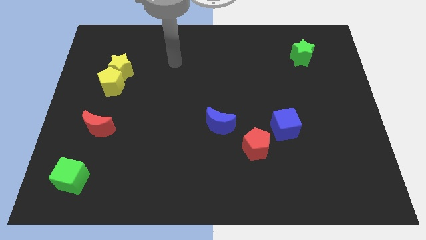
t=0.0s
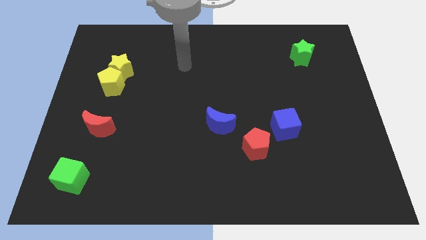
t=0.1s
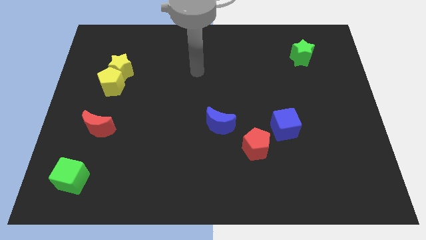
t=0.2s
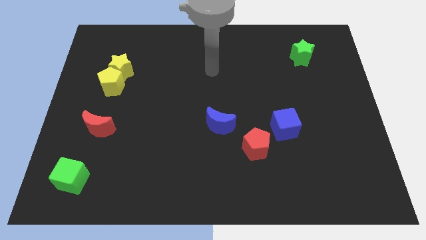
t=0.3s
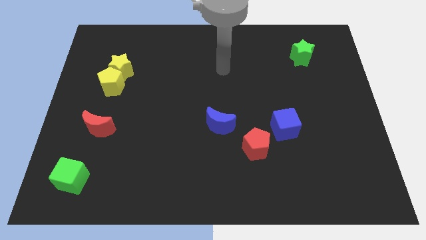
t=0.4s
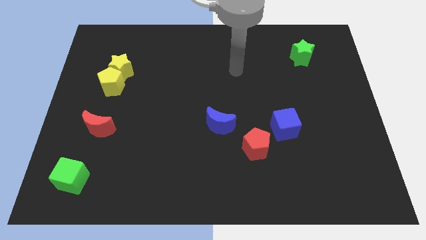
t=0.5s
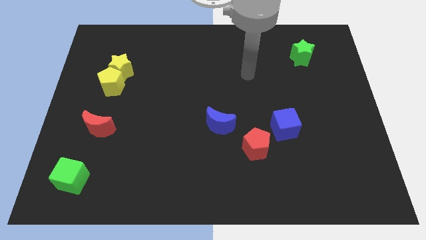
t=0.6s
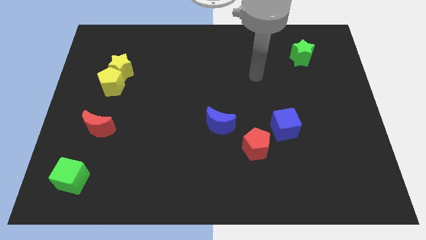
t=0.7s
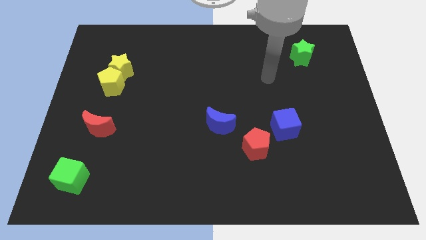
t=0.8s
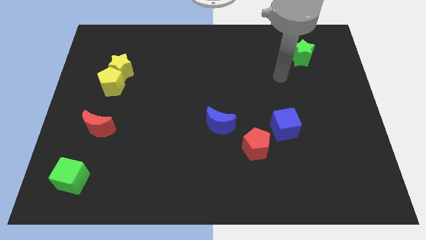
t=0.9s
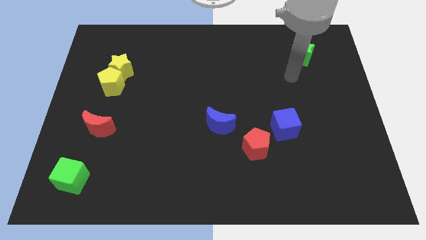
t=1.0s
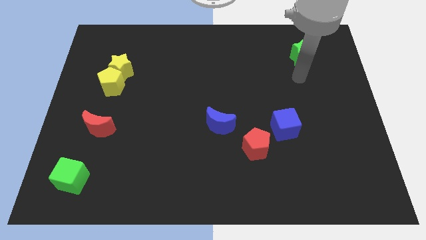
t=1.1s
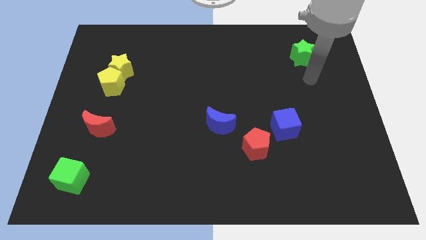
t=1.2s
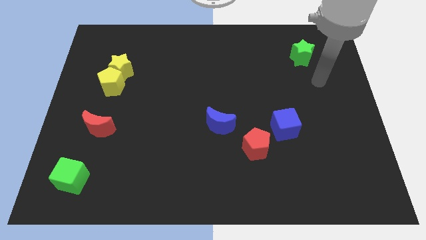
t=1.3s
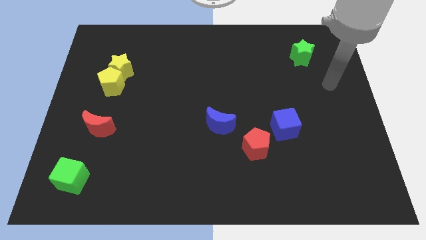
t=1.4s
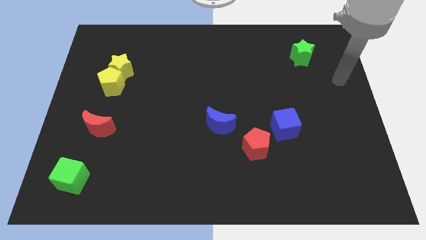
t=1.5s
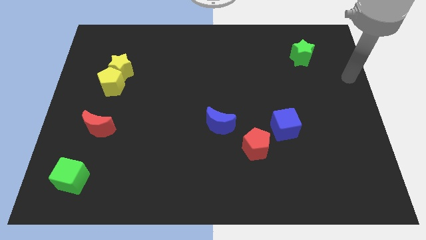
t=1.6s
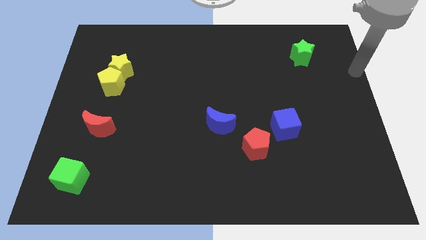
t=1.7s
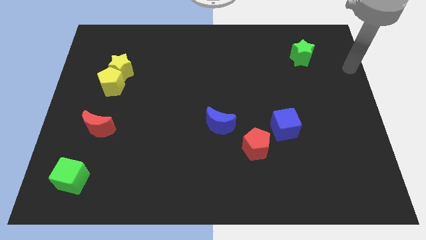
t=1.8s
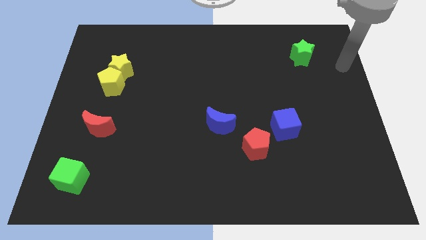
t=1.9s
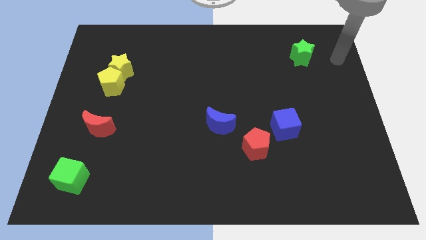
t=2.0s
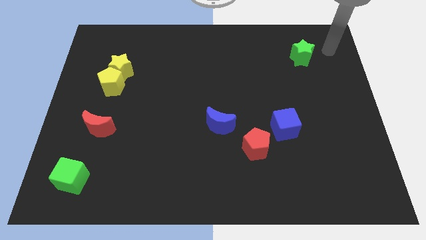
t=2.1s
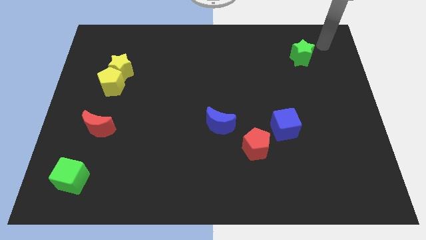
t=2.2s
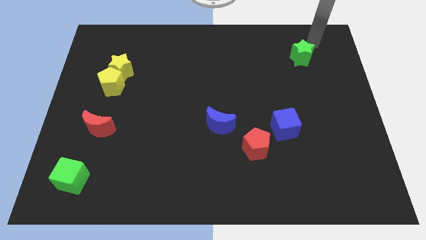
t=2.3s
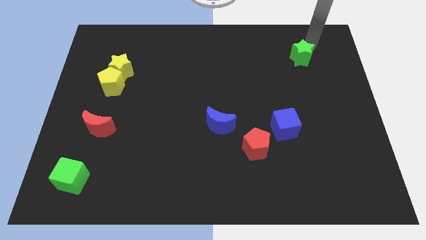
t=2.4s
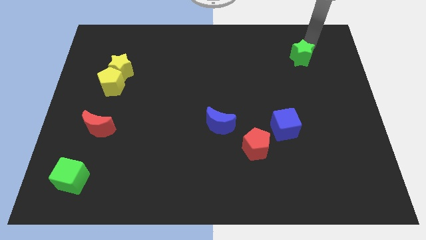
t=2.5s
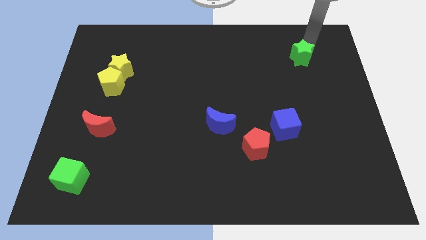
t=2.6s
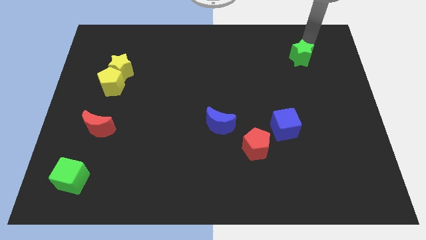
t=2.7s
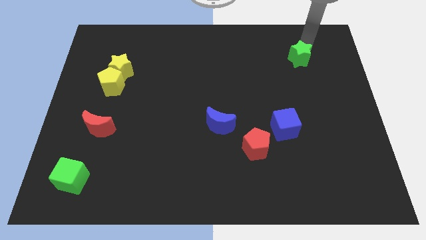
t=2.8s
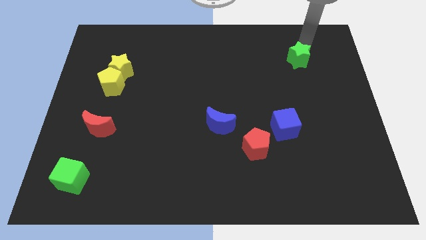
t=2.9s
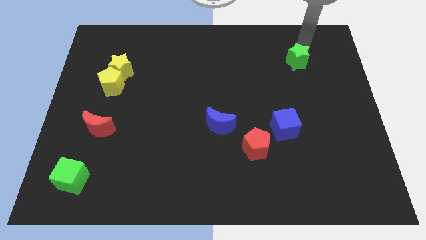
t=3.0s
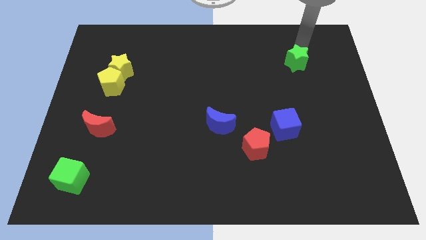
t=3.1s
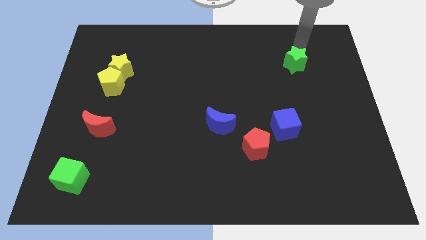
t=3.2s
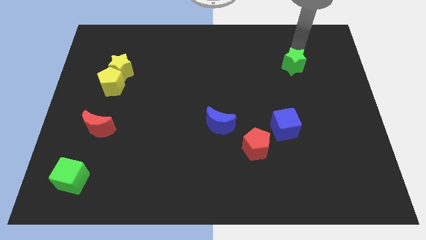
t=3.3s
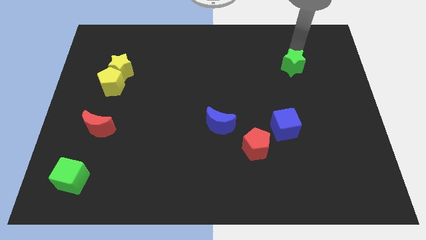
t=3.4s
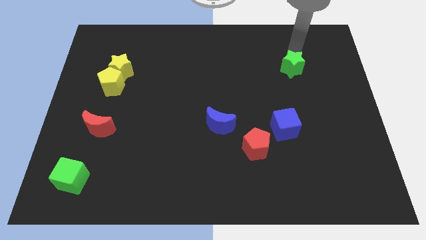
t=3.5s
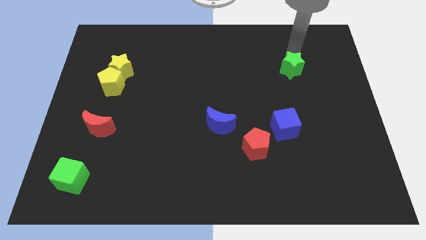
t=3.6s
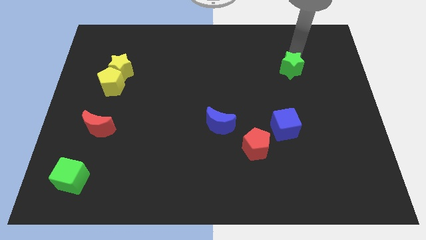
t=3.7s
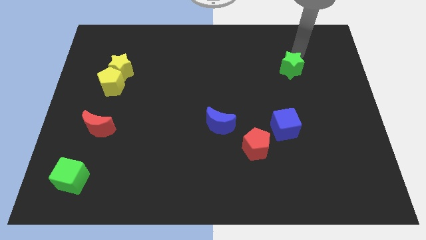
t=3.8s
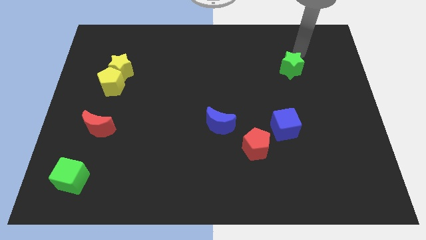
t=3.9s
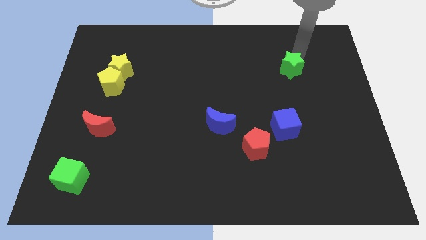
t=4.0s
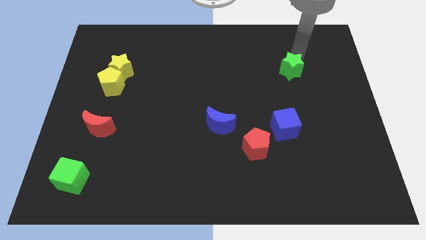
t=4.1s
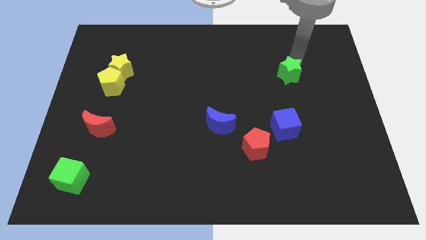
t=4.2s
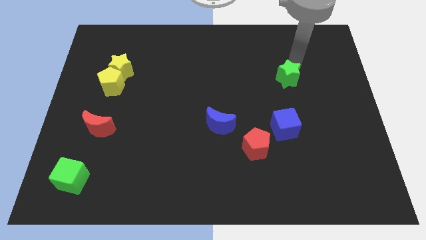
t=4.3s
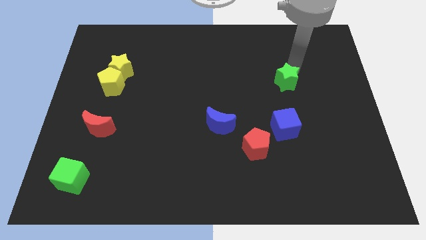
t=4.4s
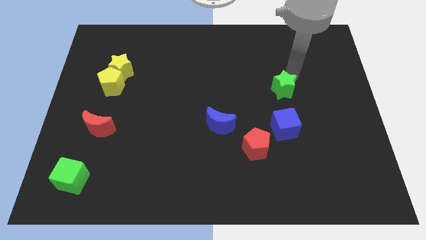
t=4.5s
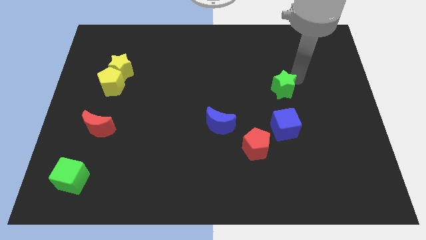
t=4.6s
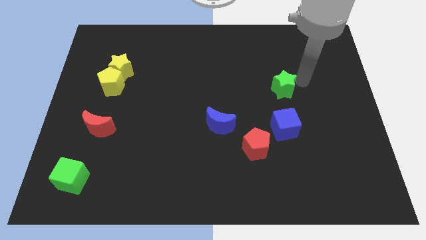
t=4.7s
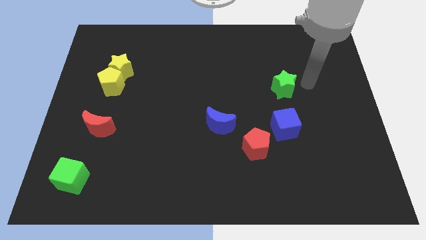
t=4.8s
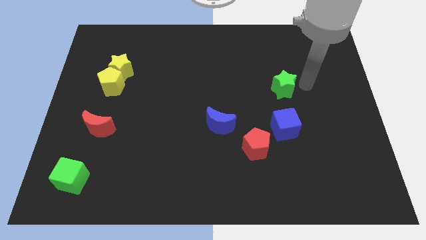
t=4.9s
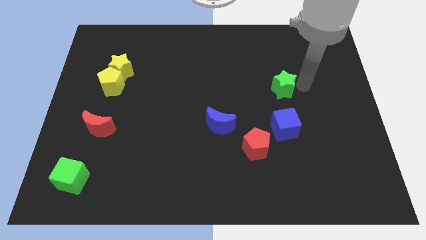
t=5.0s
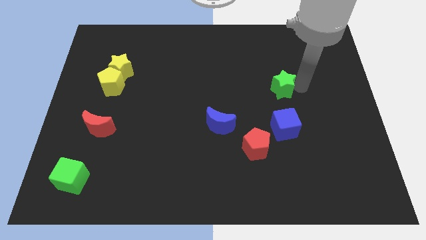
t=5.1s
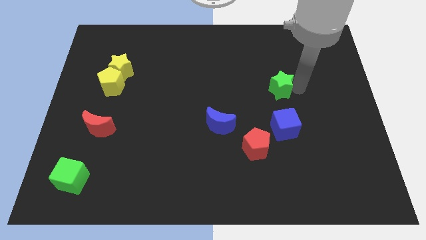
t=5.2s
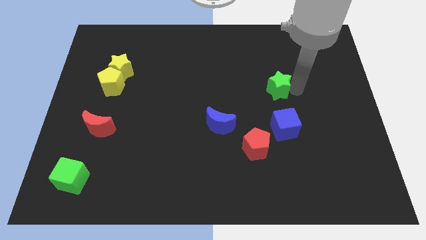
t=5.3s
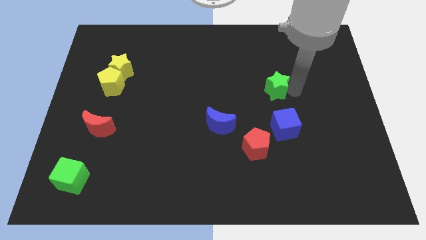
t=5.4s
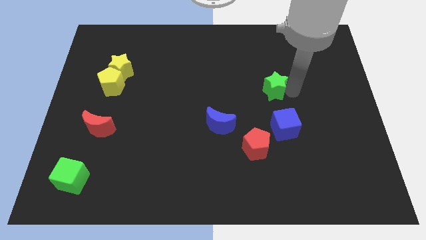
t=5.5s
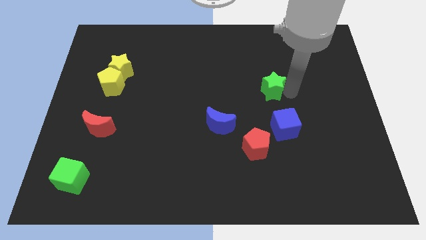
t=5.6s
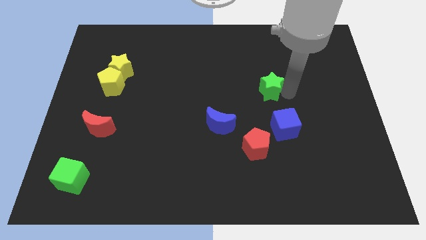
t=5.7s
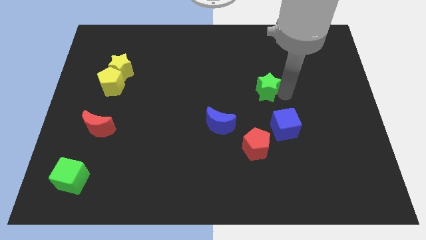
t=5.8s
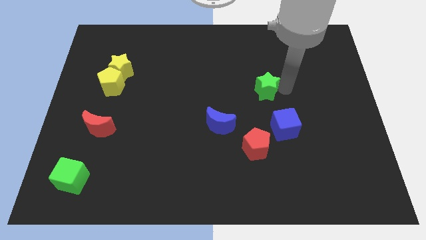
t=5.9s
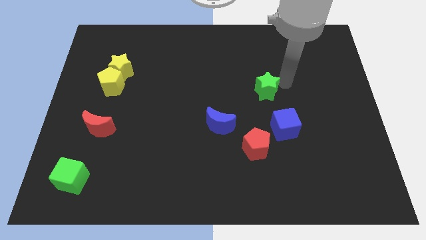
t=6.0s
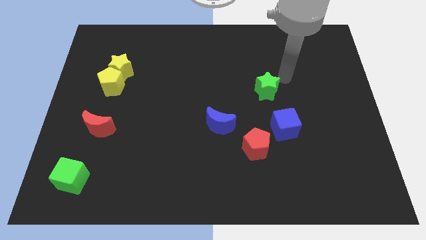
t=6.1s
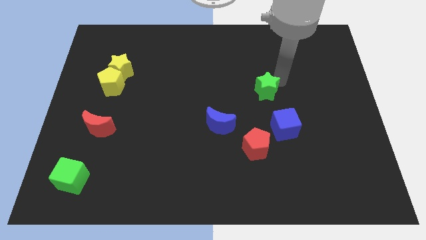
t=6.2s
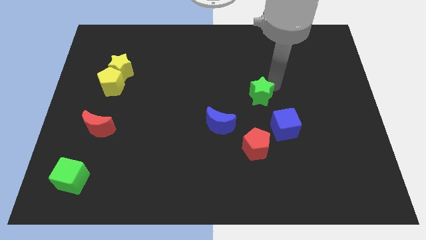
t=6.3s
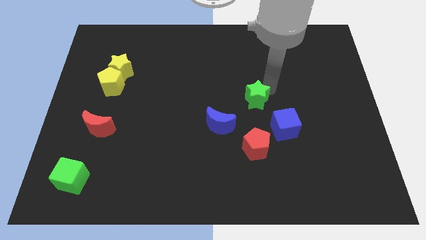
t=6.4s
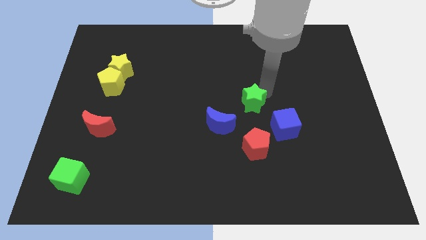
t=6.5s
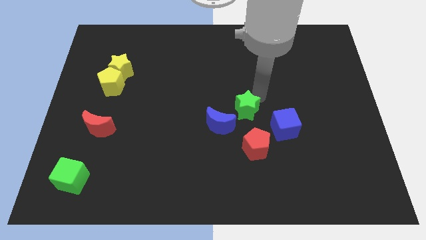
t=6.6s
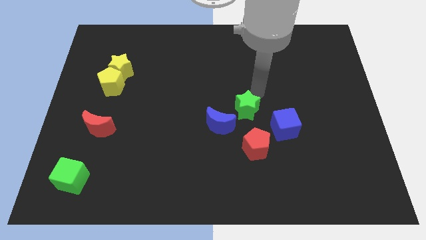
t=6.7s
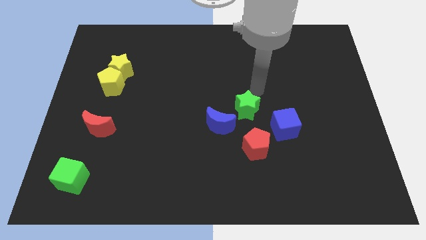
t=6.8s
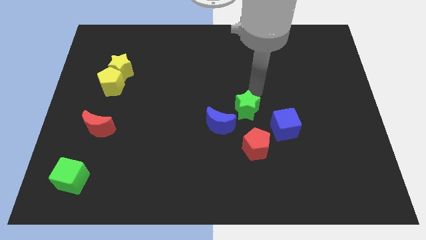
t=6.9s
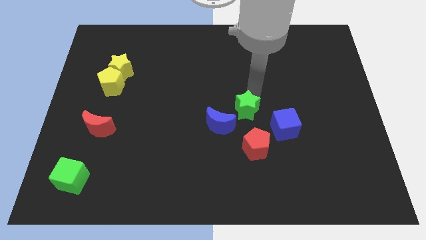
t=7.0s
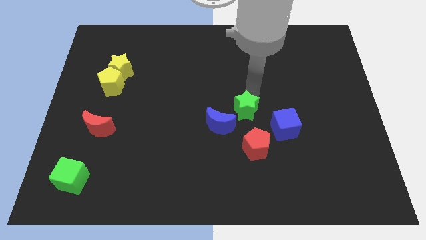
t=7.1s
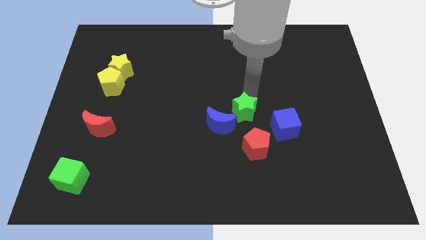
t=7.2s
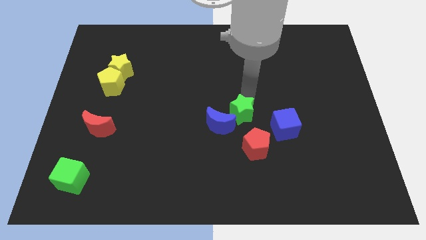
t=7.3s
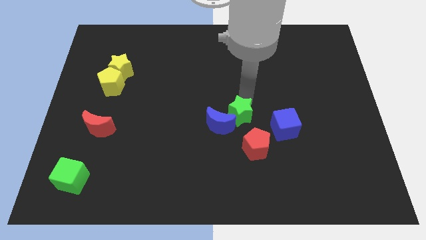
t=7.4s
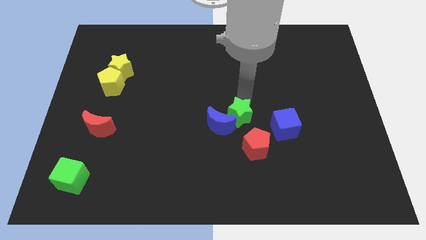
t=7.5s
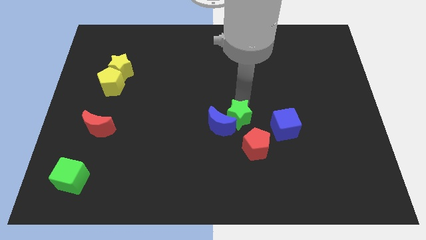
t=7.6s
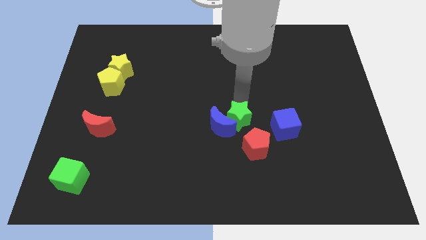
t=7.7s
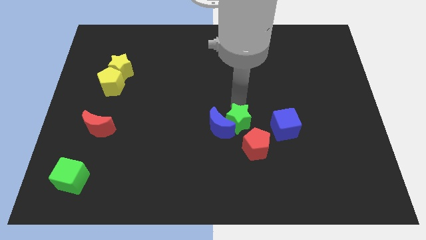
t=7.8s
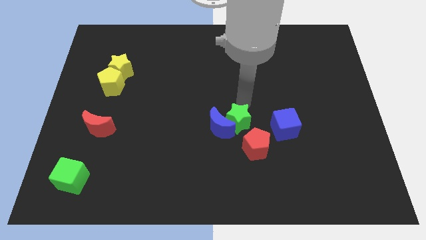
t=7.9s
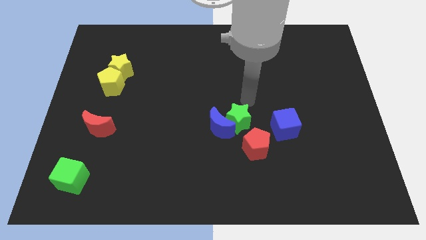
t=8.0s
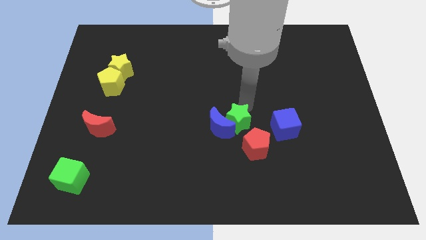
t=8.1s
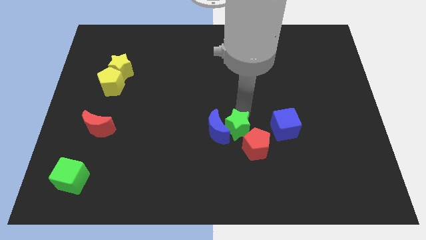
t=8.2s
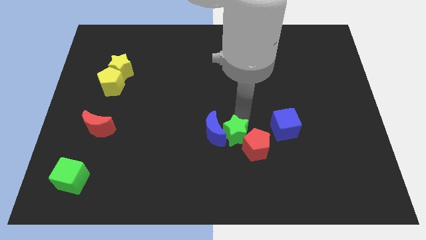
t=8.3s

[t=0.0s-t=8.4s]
move the green star left of the red pentagon
